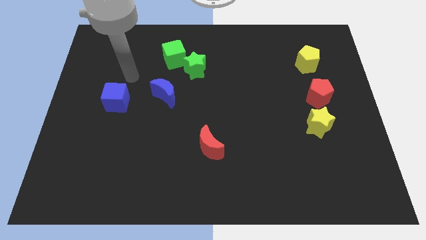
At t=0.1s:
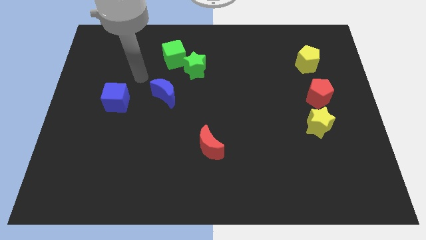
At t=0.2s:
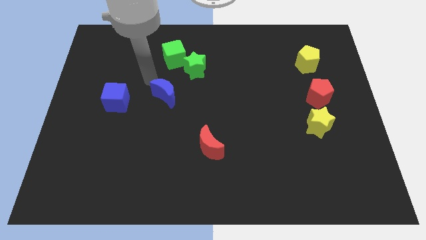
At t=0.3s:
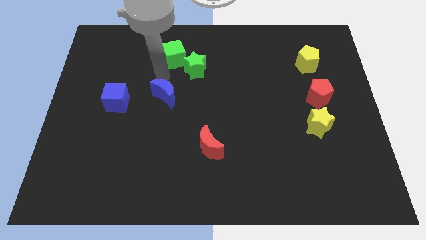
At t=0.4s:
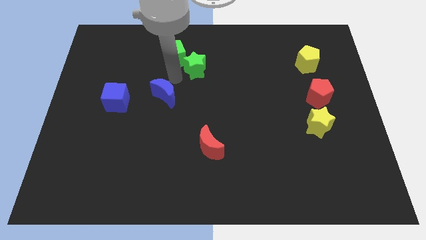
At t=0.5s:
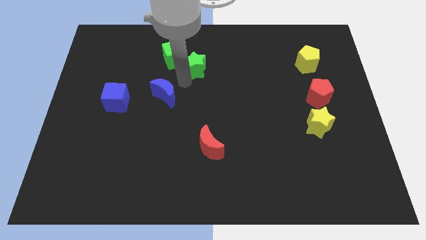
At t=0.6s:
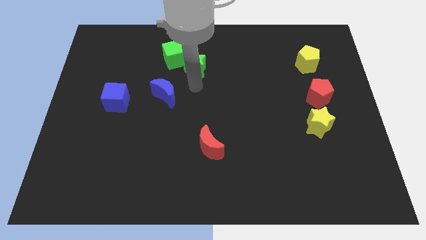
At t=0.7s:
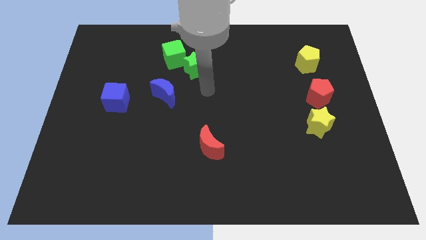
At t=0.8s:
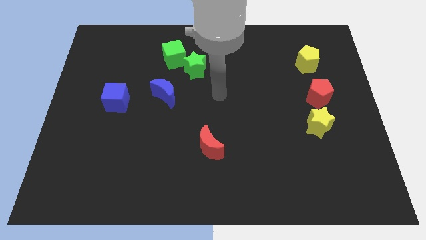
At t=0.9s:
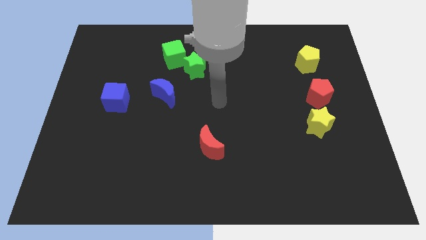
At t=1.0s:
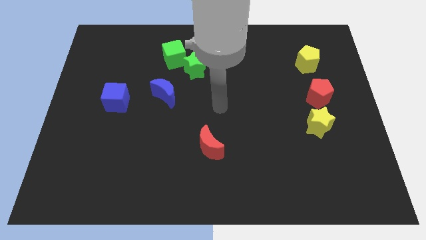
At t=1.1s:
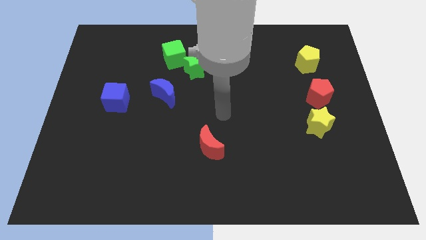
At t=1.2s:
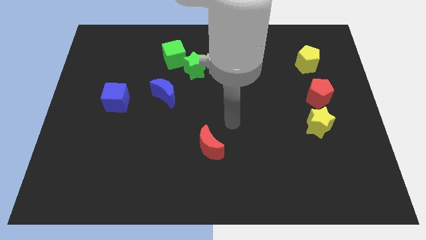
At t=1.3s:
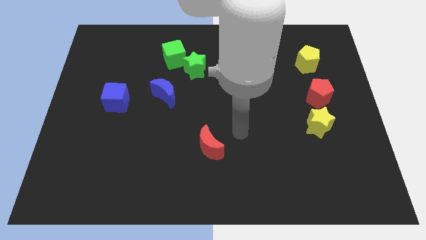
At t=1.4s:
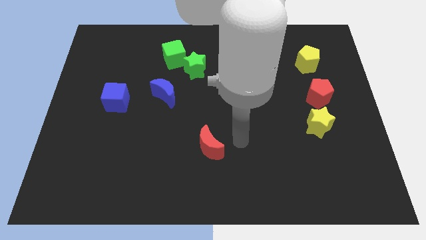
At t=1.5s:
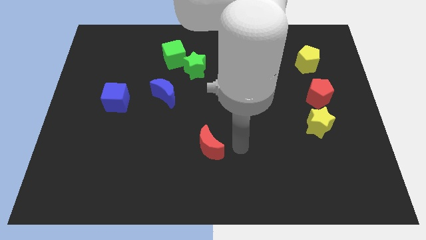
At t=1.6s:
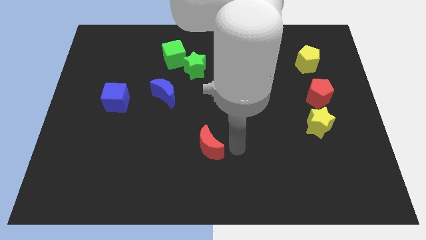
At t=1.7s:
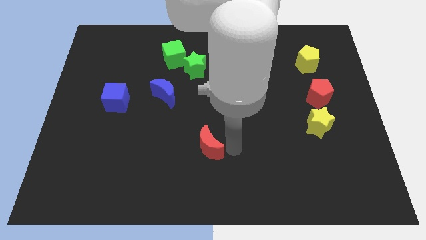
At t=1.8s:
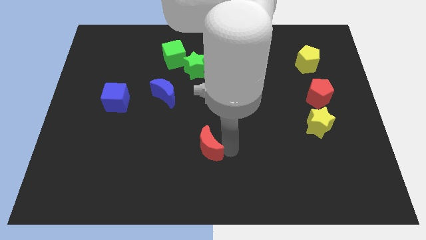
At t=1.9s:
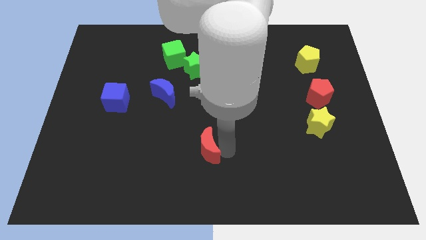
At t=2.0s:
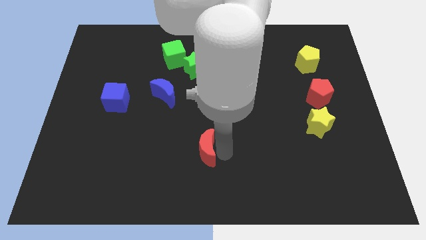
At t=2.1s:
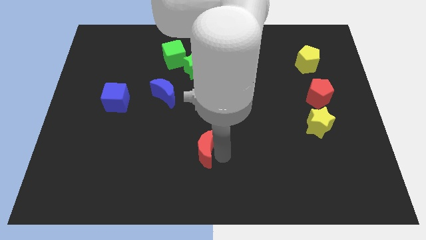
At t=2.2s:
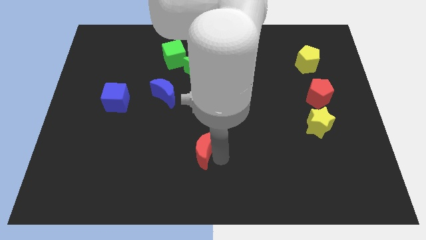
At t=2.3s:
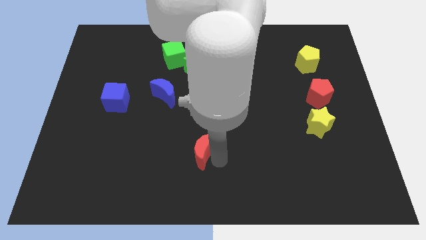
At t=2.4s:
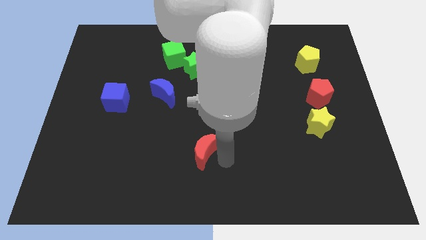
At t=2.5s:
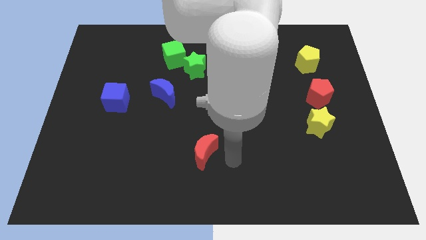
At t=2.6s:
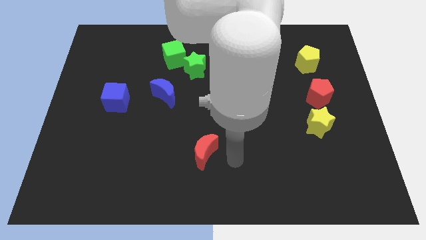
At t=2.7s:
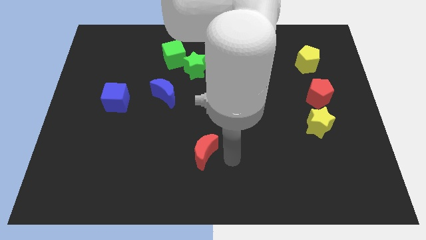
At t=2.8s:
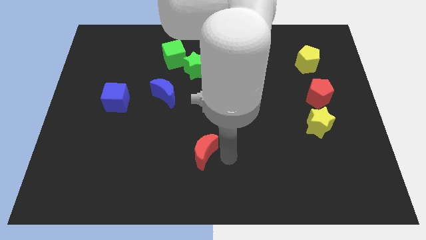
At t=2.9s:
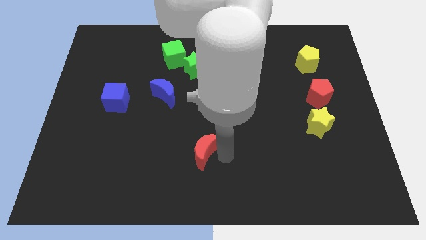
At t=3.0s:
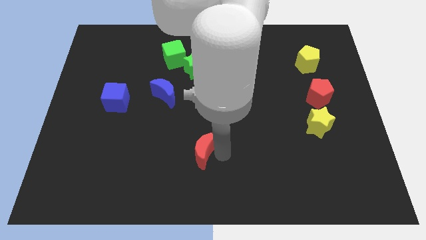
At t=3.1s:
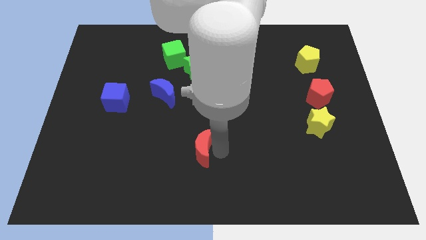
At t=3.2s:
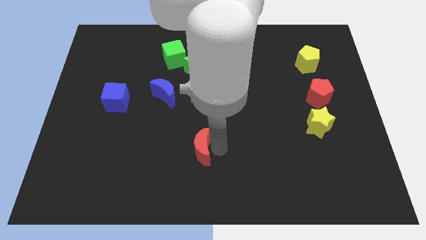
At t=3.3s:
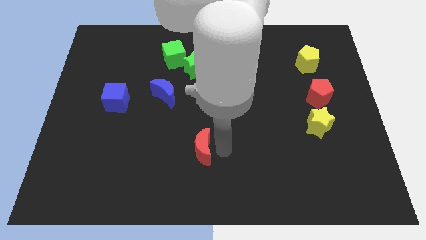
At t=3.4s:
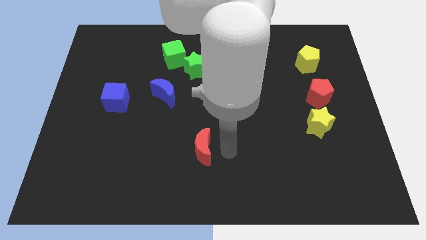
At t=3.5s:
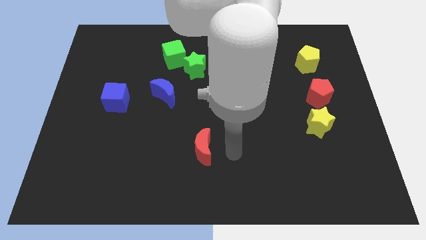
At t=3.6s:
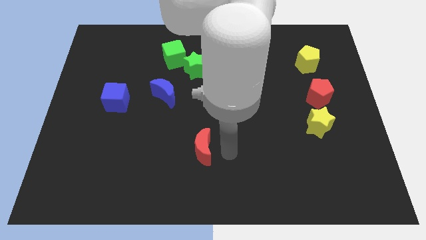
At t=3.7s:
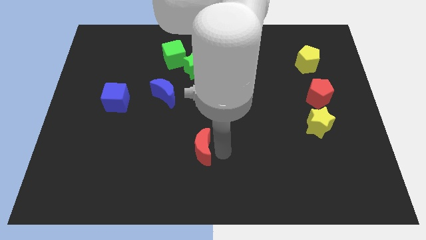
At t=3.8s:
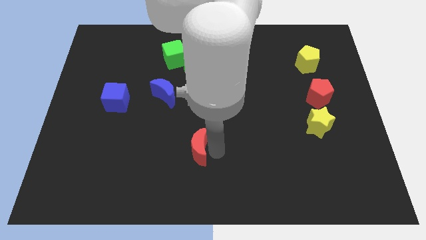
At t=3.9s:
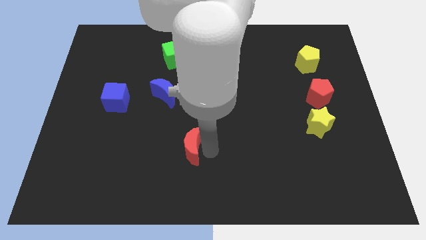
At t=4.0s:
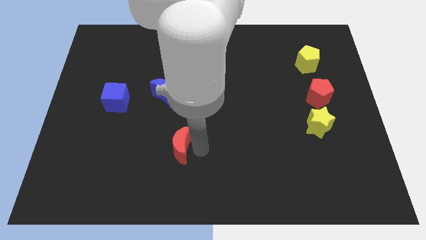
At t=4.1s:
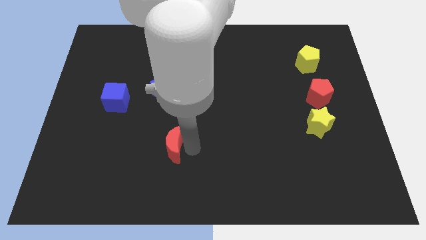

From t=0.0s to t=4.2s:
move the red moon left a little

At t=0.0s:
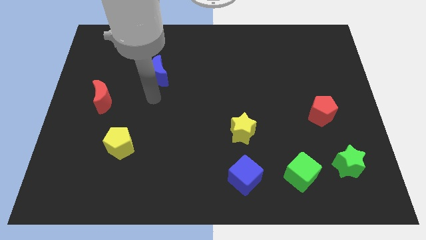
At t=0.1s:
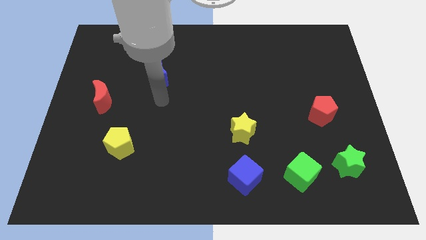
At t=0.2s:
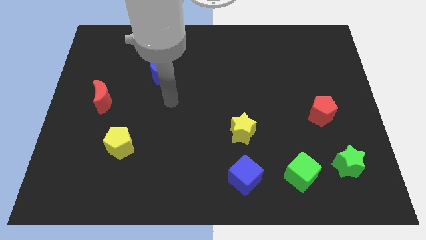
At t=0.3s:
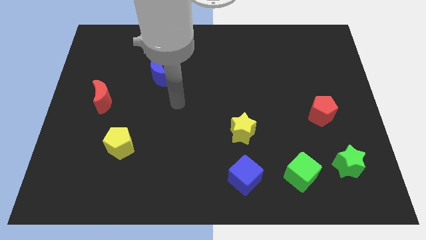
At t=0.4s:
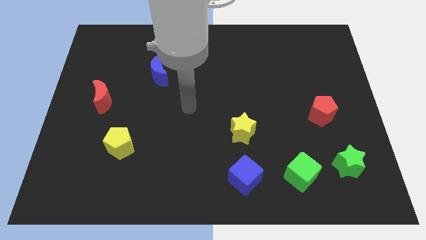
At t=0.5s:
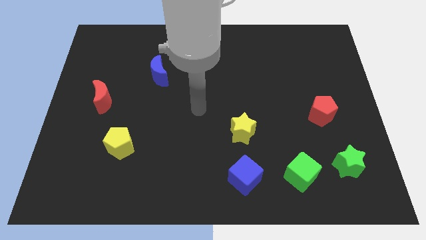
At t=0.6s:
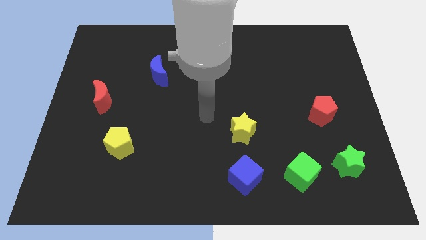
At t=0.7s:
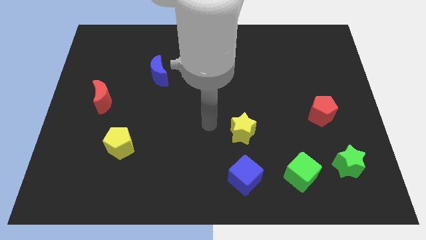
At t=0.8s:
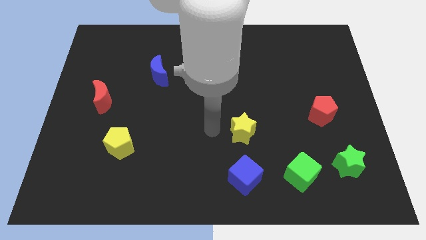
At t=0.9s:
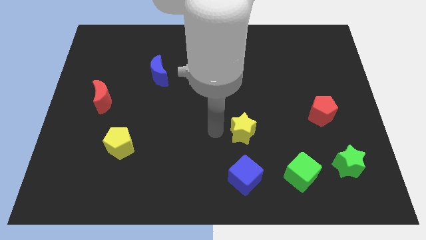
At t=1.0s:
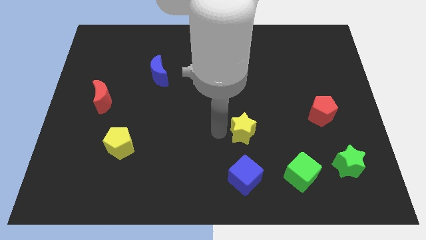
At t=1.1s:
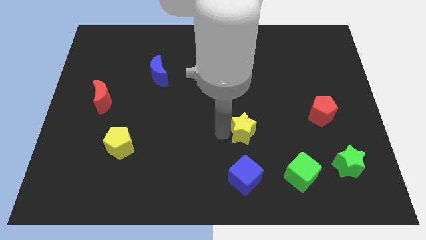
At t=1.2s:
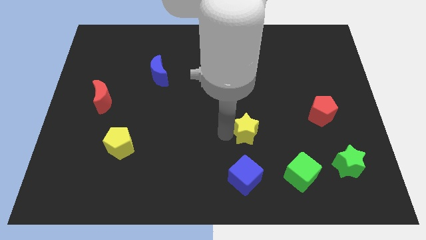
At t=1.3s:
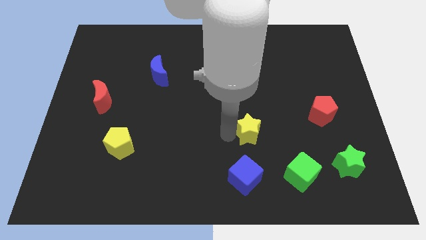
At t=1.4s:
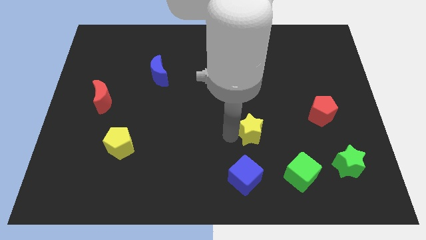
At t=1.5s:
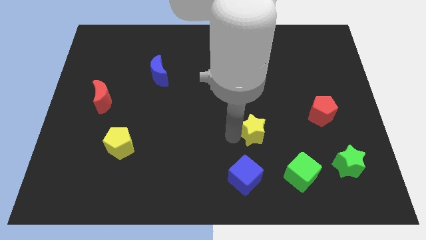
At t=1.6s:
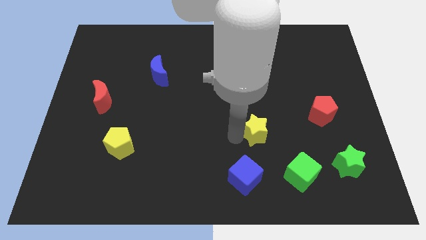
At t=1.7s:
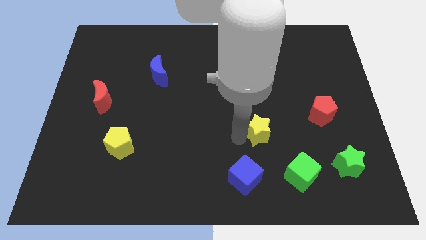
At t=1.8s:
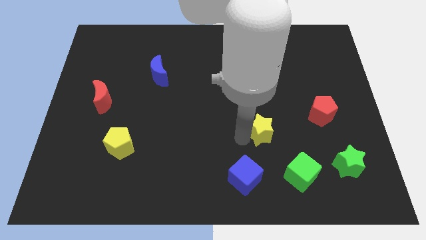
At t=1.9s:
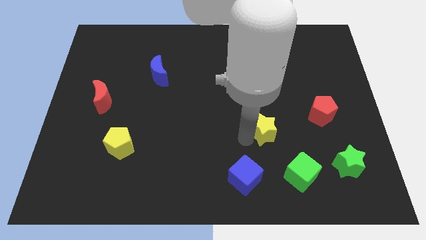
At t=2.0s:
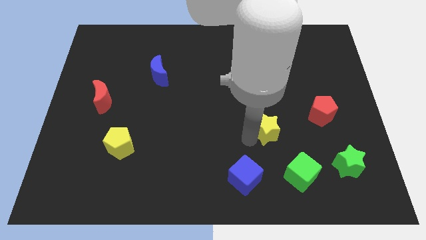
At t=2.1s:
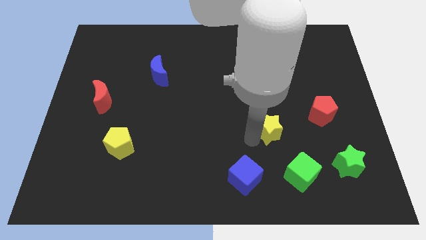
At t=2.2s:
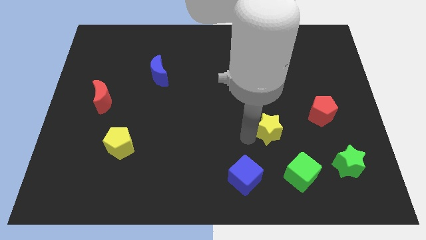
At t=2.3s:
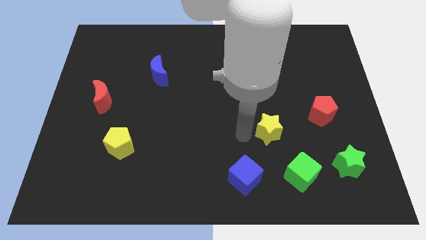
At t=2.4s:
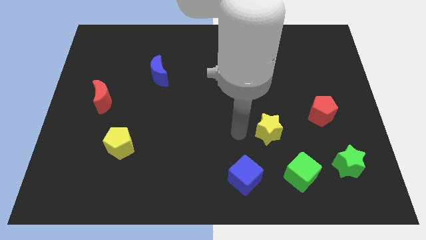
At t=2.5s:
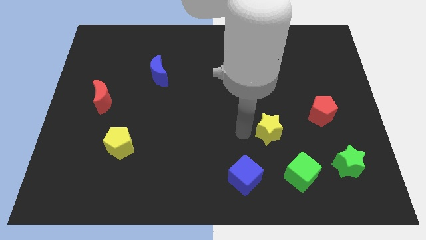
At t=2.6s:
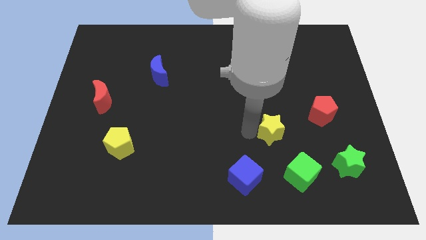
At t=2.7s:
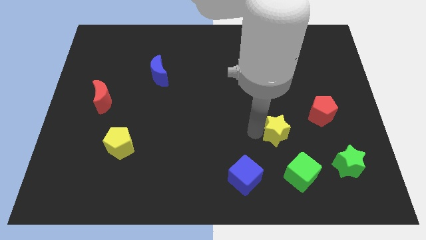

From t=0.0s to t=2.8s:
push the yellow star to the right a little bit

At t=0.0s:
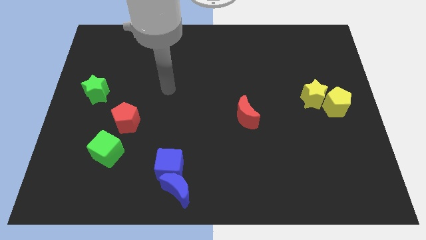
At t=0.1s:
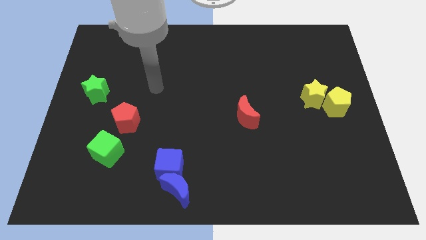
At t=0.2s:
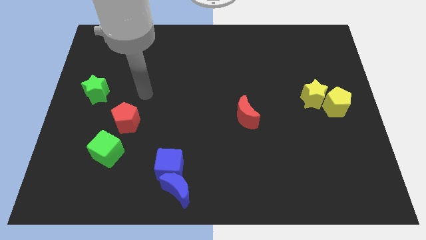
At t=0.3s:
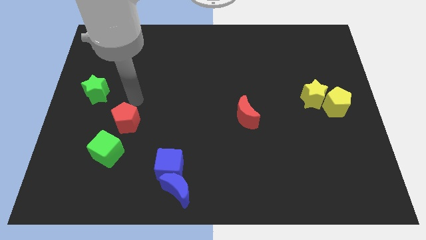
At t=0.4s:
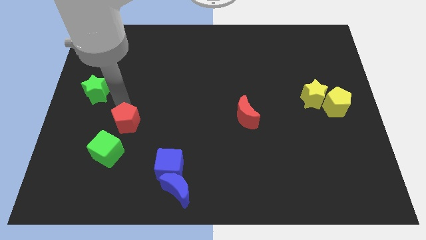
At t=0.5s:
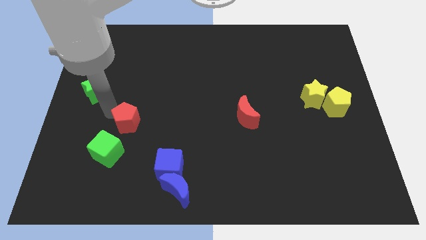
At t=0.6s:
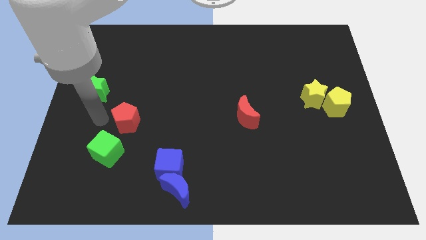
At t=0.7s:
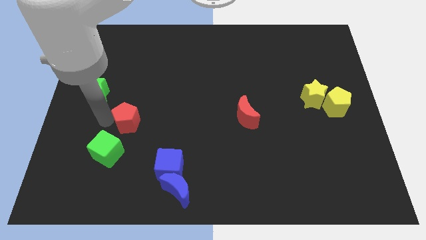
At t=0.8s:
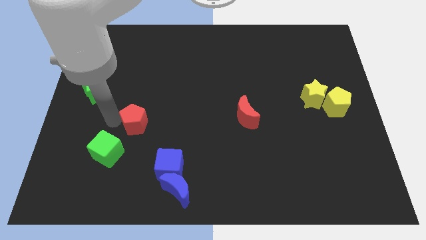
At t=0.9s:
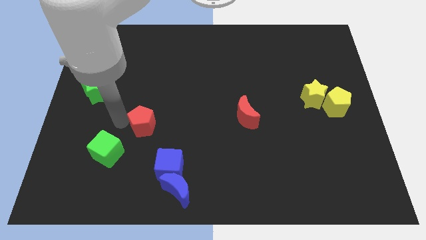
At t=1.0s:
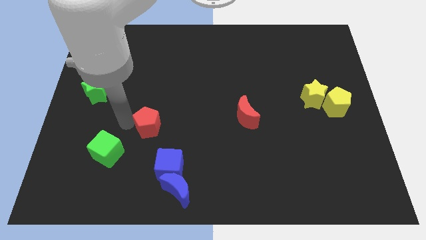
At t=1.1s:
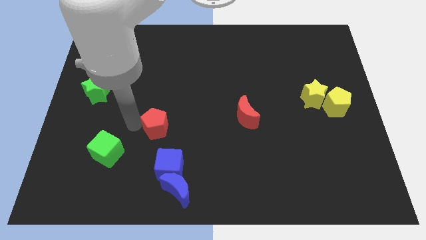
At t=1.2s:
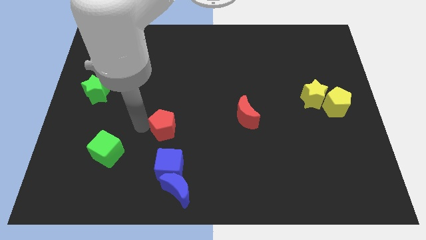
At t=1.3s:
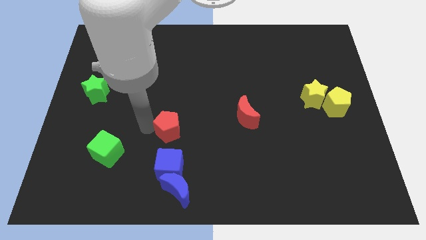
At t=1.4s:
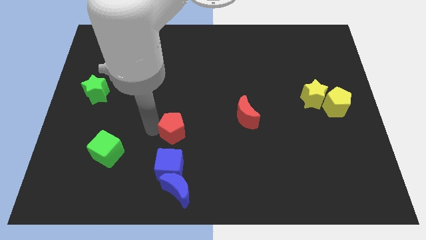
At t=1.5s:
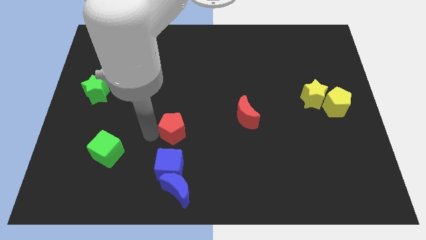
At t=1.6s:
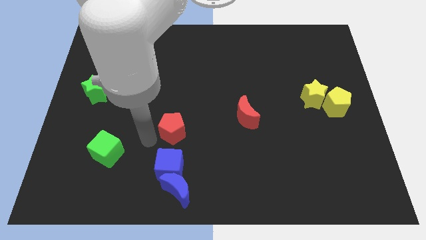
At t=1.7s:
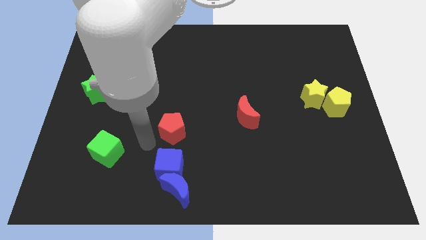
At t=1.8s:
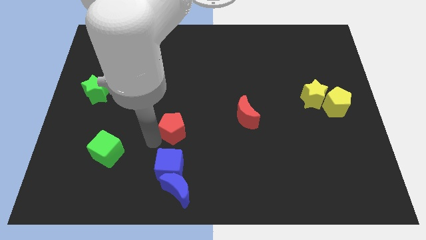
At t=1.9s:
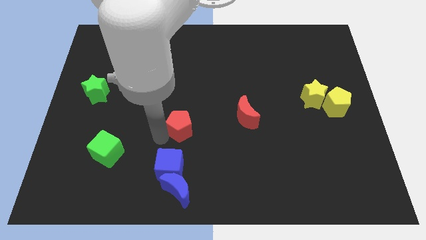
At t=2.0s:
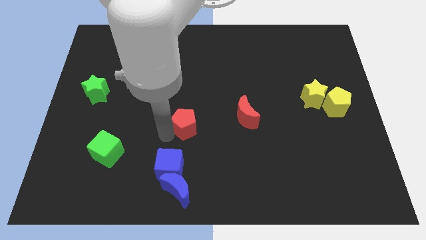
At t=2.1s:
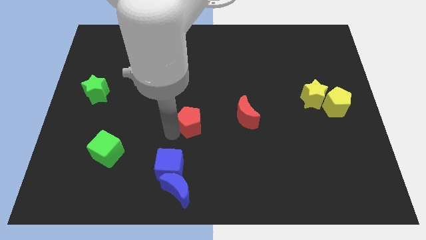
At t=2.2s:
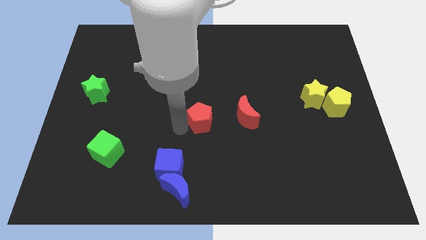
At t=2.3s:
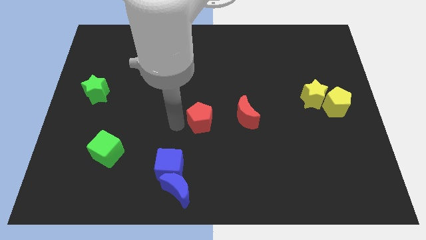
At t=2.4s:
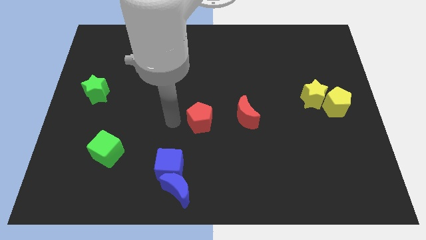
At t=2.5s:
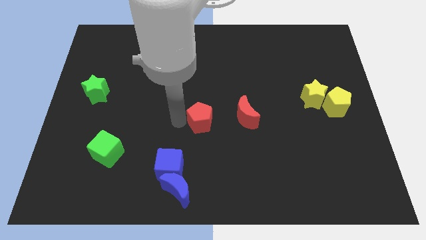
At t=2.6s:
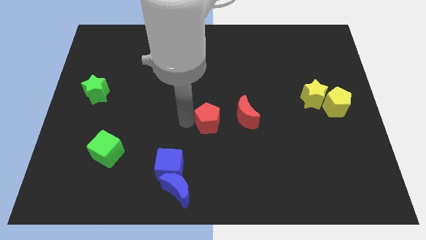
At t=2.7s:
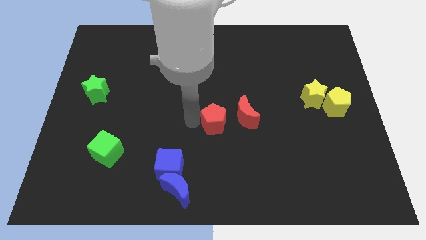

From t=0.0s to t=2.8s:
move the red pentagon right